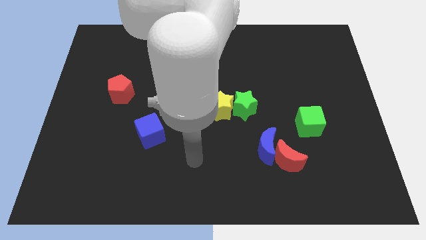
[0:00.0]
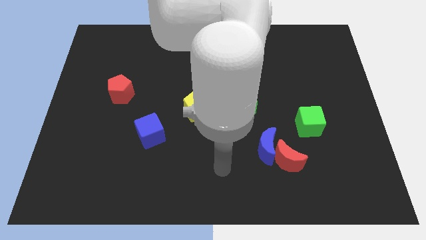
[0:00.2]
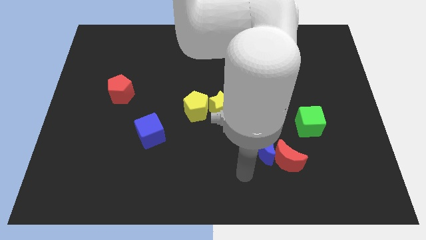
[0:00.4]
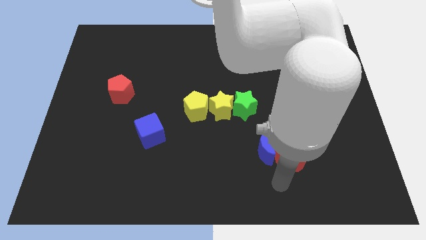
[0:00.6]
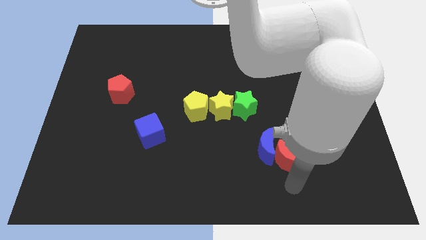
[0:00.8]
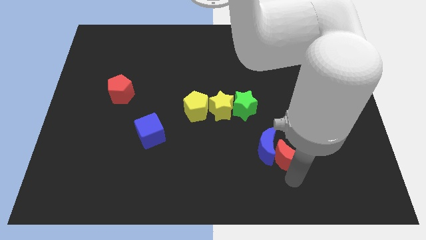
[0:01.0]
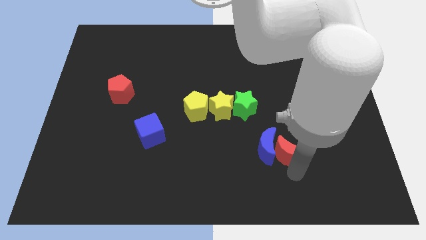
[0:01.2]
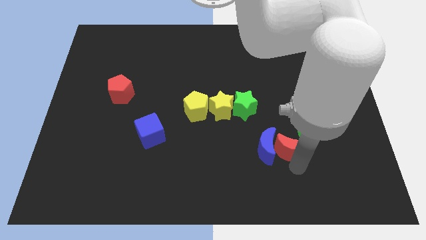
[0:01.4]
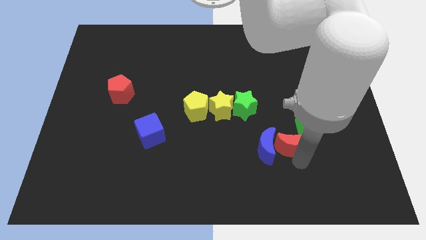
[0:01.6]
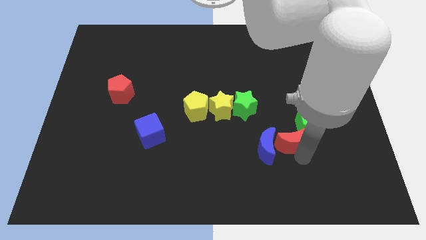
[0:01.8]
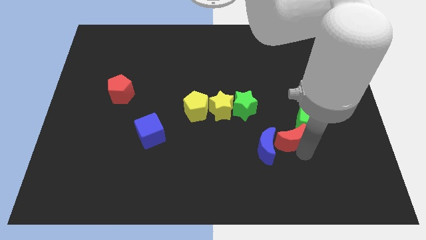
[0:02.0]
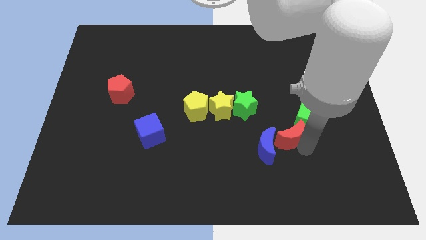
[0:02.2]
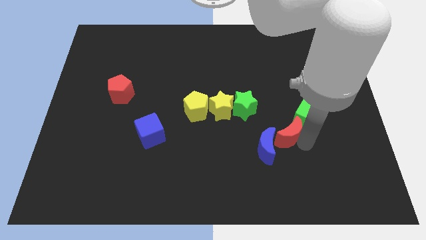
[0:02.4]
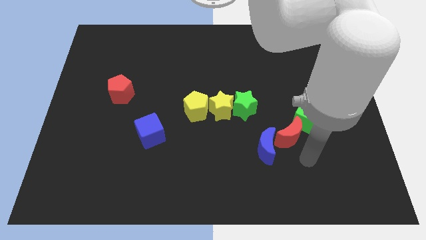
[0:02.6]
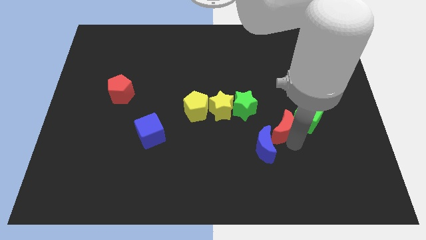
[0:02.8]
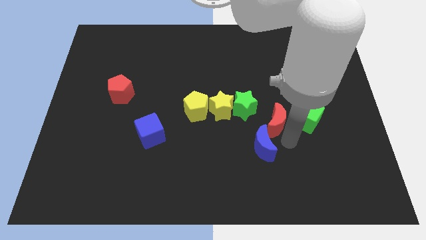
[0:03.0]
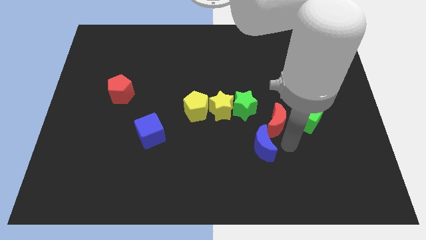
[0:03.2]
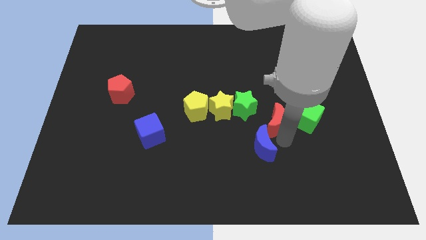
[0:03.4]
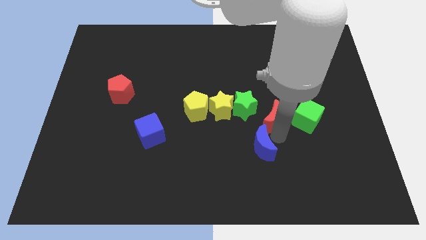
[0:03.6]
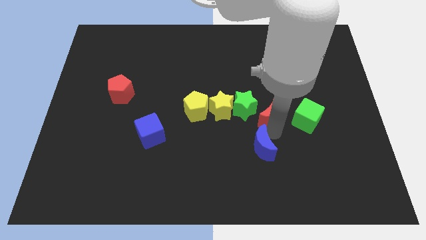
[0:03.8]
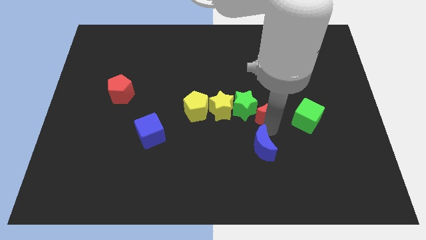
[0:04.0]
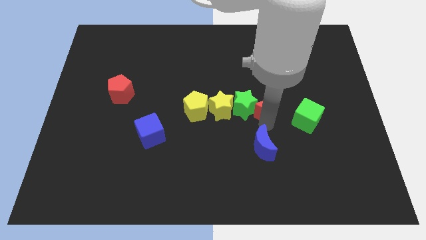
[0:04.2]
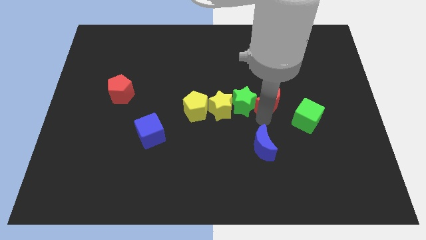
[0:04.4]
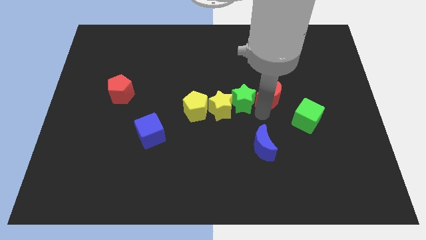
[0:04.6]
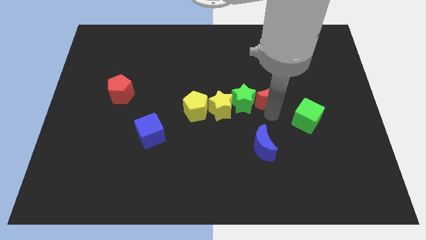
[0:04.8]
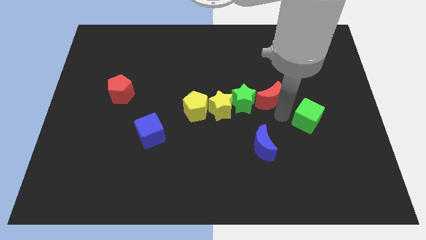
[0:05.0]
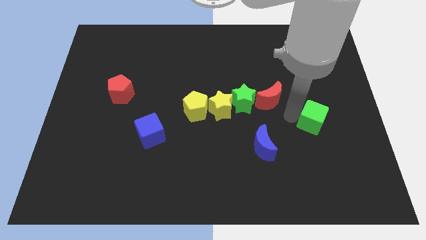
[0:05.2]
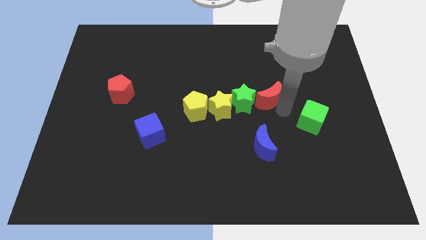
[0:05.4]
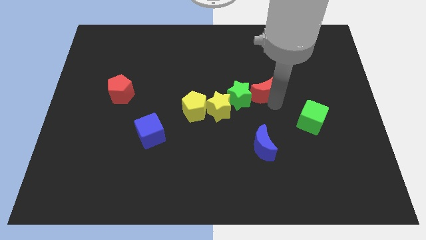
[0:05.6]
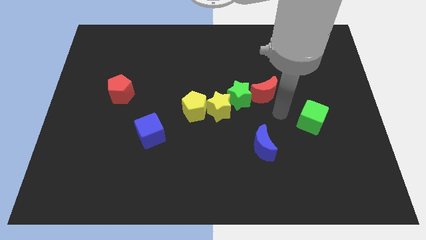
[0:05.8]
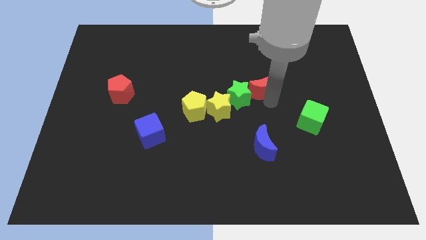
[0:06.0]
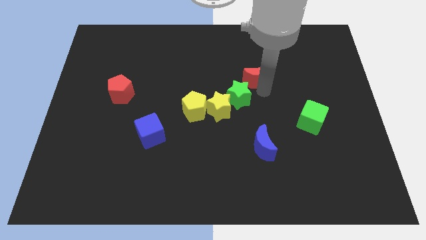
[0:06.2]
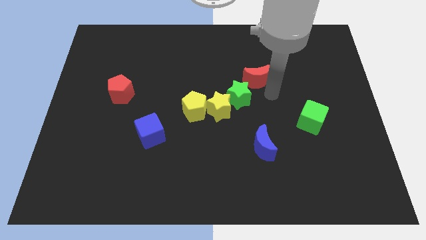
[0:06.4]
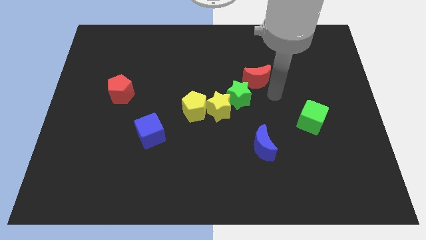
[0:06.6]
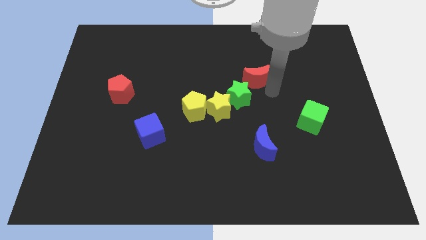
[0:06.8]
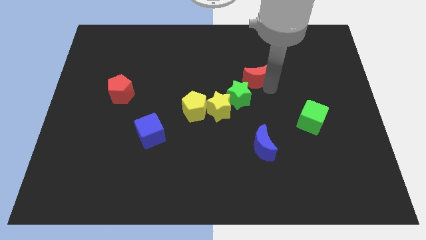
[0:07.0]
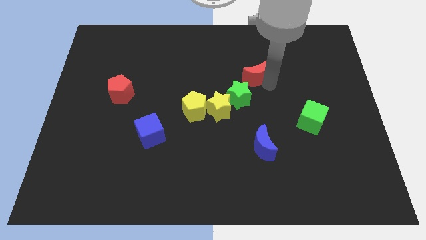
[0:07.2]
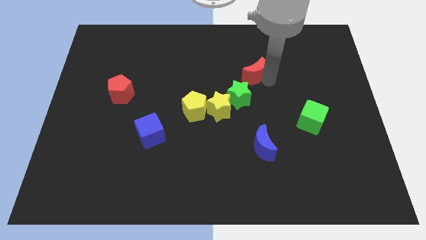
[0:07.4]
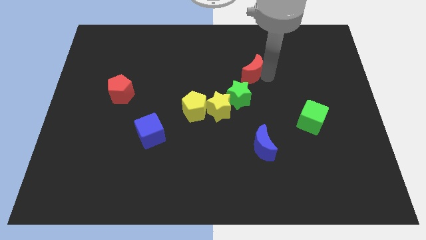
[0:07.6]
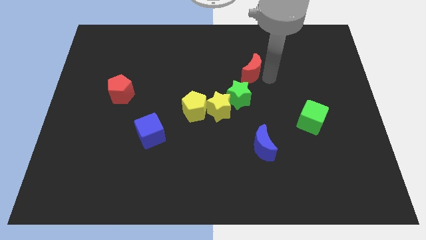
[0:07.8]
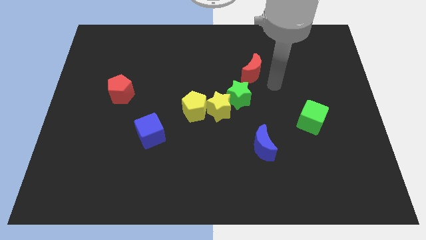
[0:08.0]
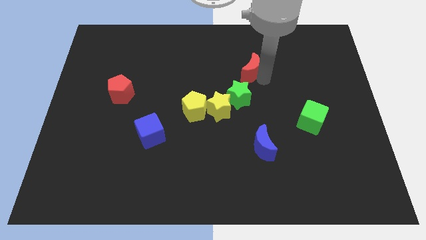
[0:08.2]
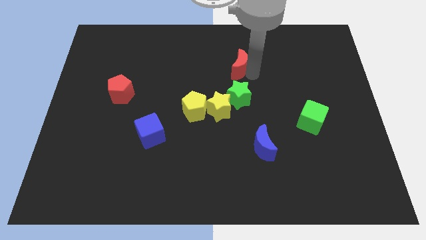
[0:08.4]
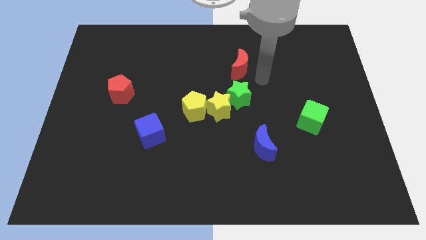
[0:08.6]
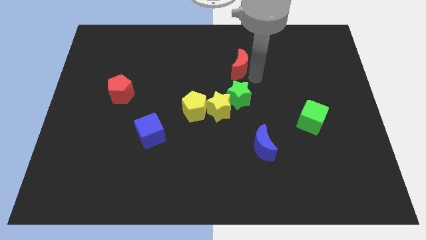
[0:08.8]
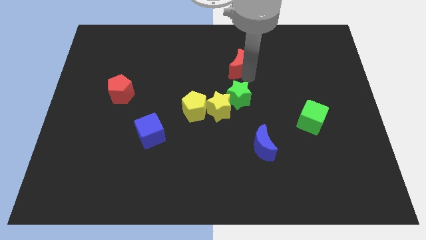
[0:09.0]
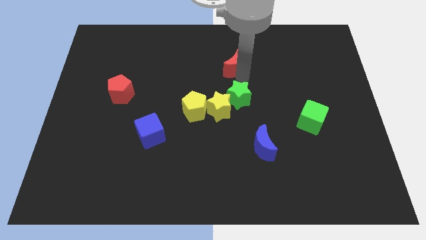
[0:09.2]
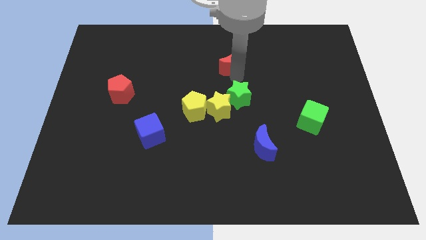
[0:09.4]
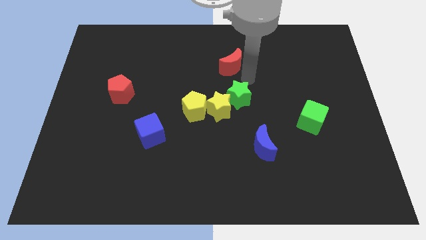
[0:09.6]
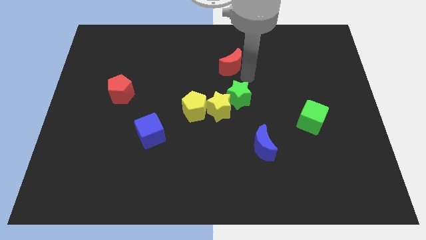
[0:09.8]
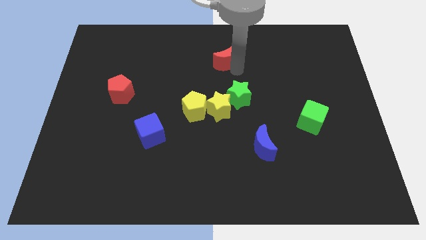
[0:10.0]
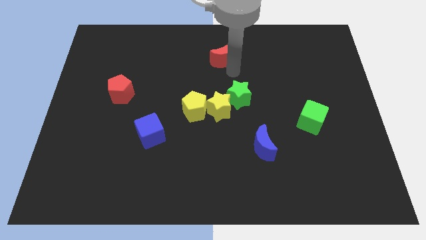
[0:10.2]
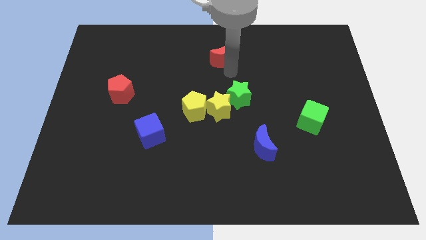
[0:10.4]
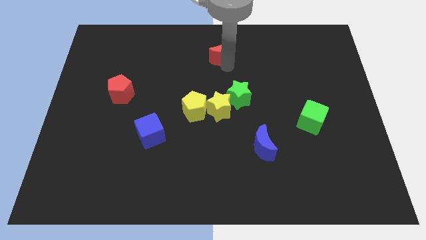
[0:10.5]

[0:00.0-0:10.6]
put the red moon to the top

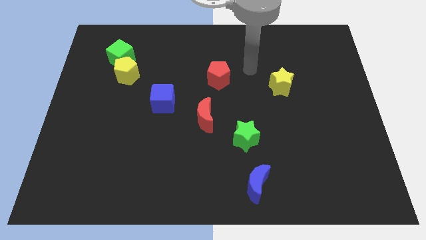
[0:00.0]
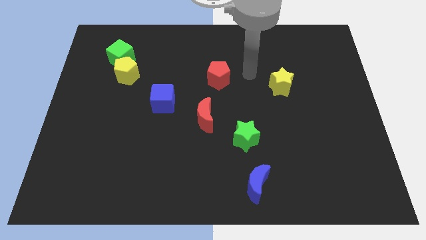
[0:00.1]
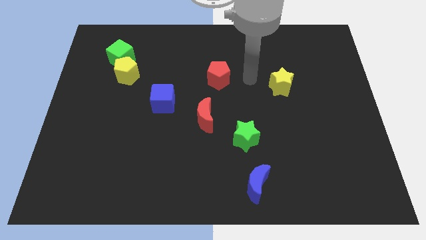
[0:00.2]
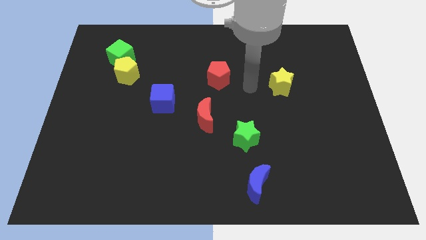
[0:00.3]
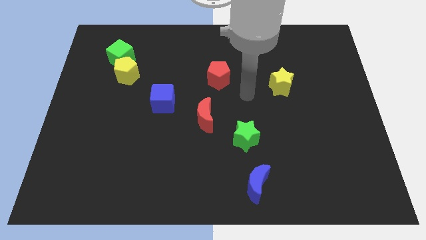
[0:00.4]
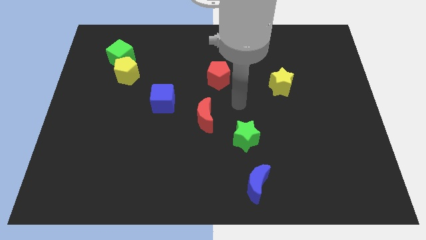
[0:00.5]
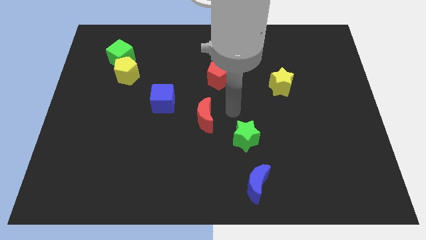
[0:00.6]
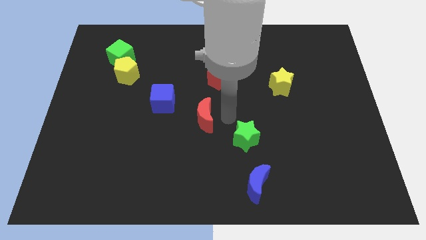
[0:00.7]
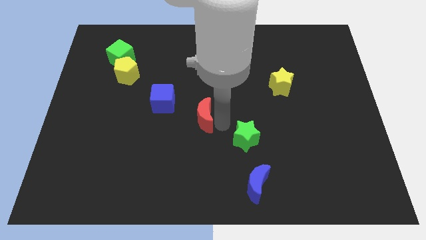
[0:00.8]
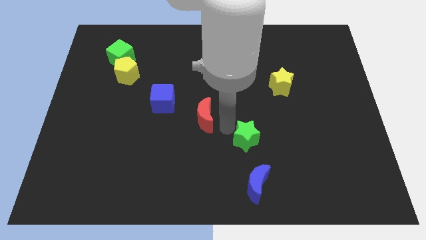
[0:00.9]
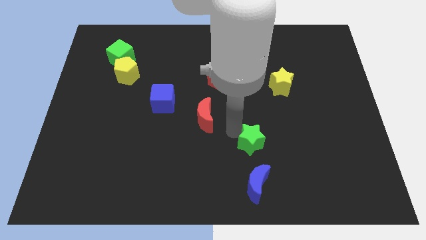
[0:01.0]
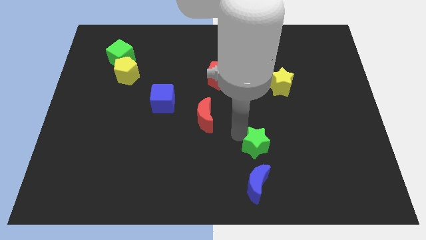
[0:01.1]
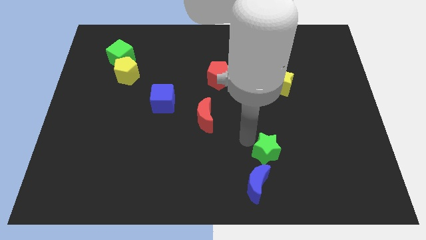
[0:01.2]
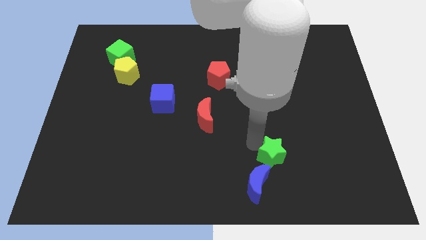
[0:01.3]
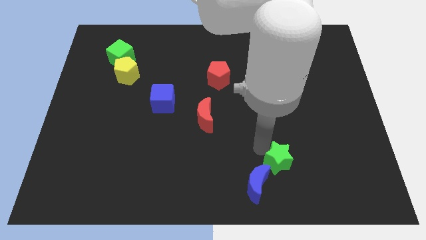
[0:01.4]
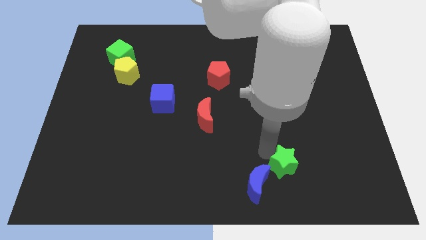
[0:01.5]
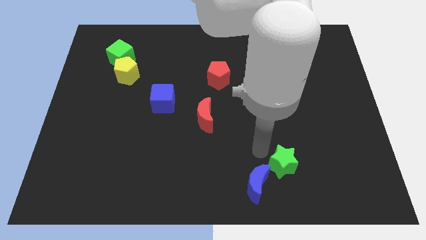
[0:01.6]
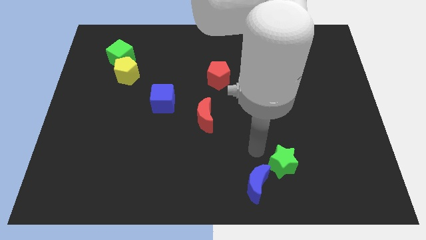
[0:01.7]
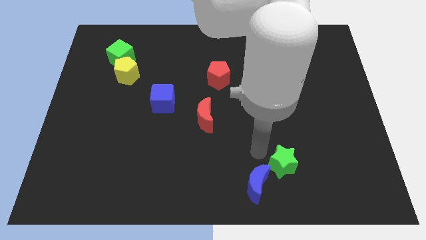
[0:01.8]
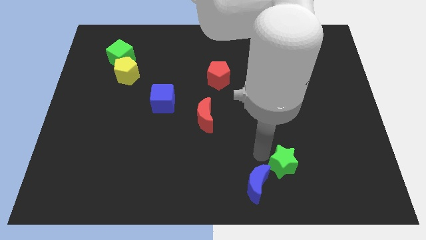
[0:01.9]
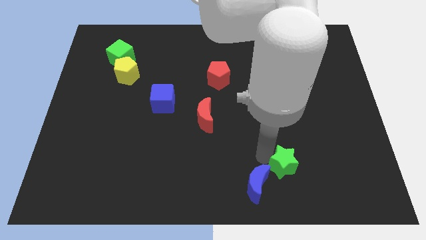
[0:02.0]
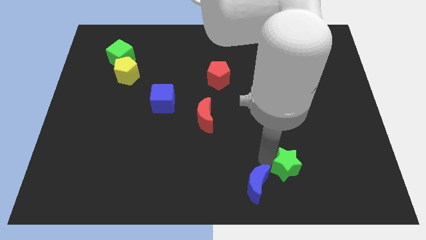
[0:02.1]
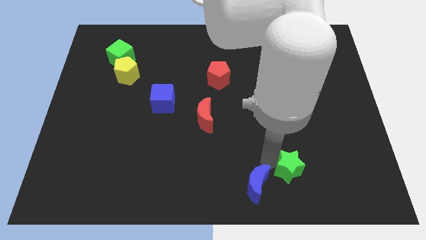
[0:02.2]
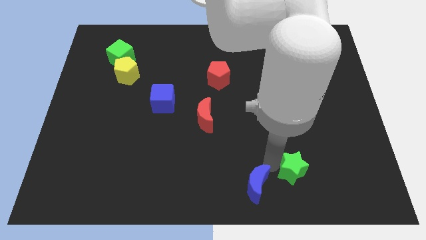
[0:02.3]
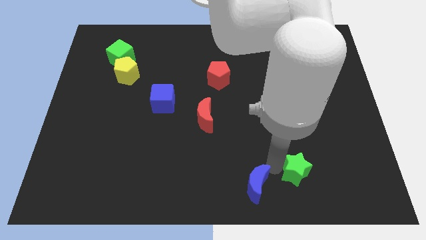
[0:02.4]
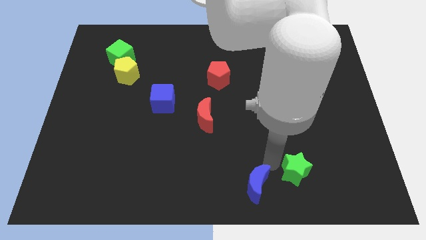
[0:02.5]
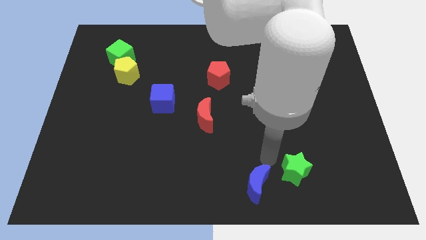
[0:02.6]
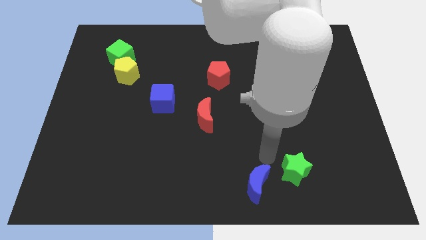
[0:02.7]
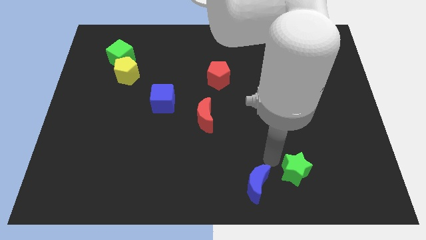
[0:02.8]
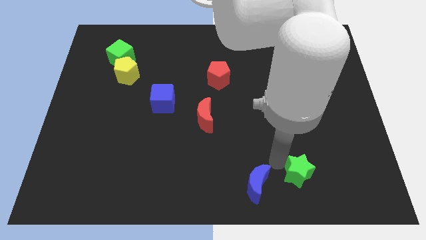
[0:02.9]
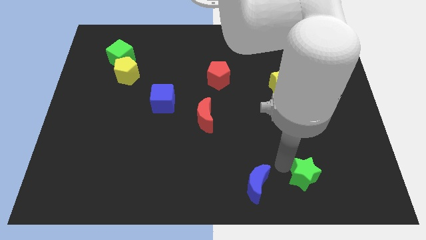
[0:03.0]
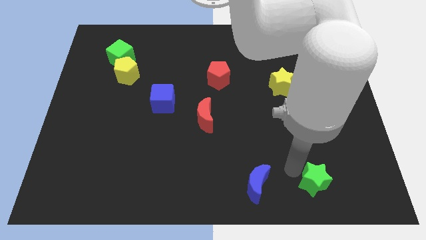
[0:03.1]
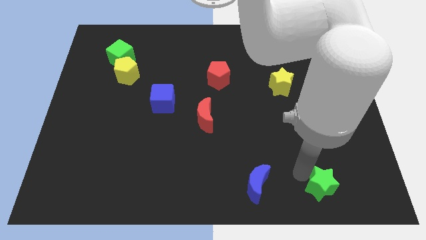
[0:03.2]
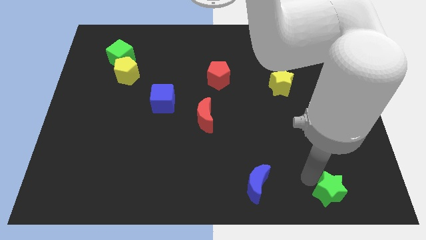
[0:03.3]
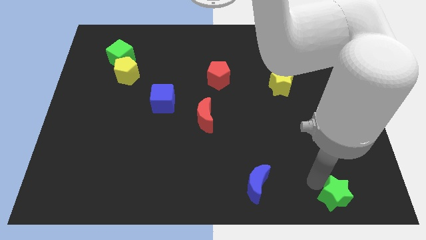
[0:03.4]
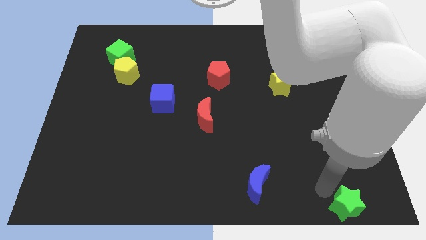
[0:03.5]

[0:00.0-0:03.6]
move the green star to the bottom right of the board
